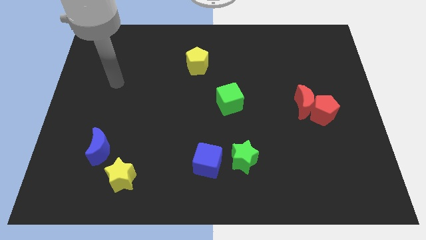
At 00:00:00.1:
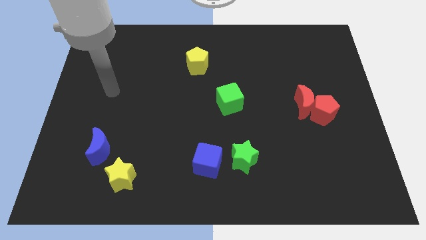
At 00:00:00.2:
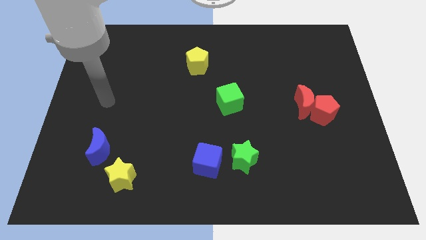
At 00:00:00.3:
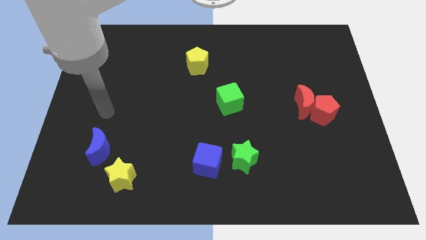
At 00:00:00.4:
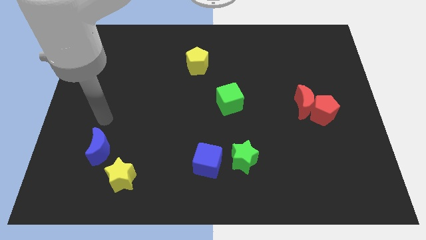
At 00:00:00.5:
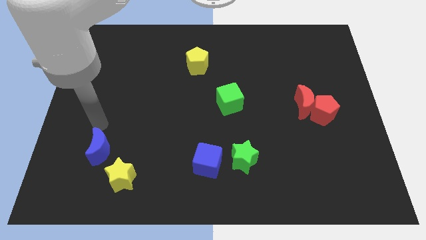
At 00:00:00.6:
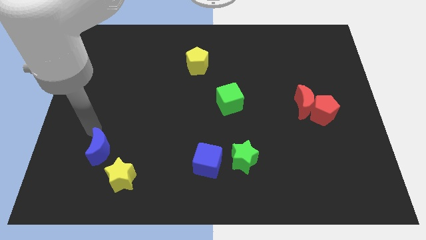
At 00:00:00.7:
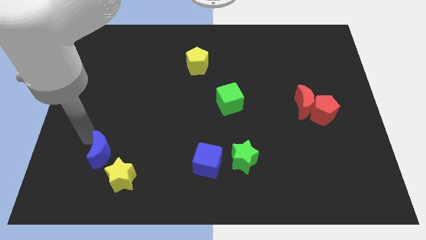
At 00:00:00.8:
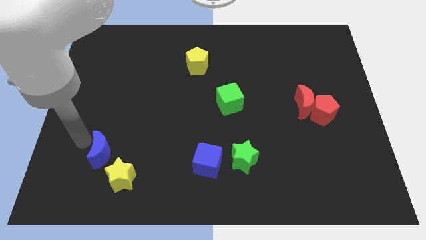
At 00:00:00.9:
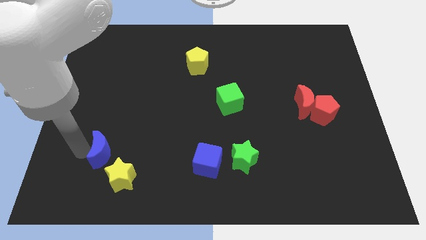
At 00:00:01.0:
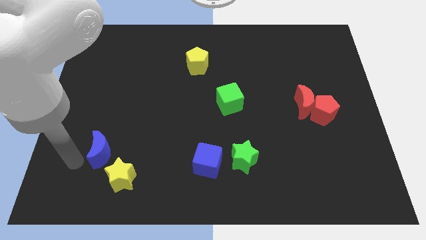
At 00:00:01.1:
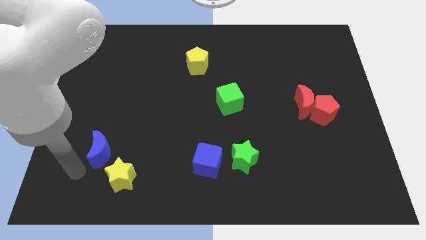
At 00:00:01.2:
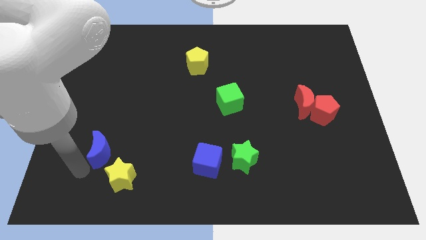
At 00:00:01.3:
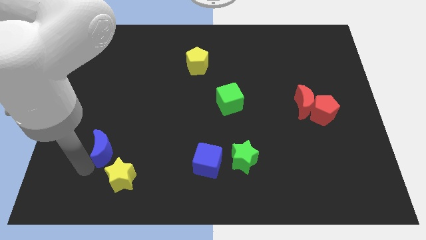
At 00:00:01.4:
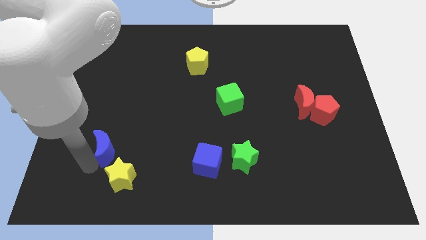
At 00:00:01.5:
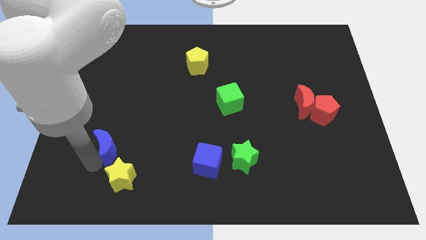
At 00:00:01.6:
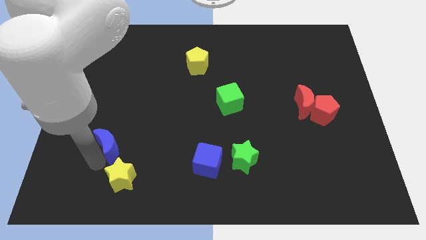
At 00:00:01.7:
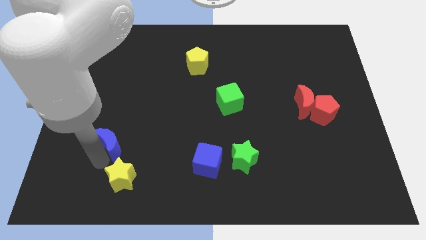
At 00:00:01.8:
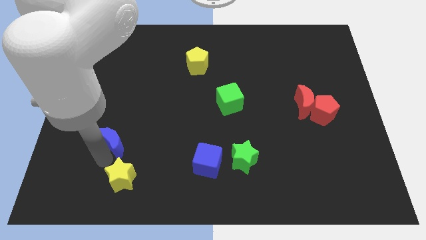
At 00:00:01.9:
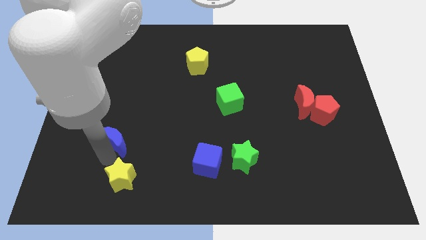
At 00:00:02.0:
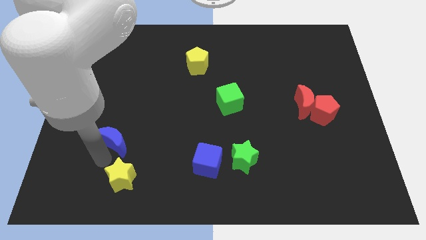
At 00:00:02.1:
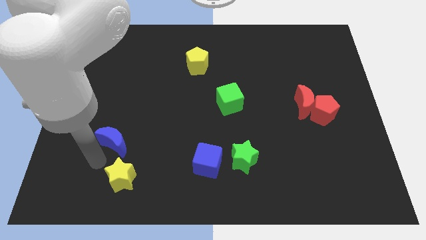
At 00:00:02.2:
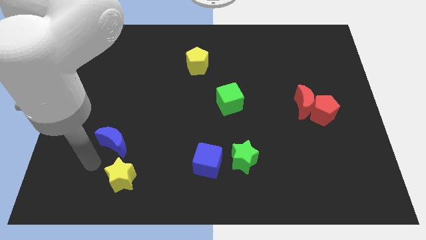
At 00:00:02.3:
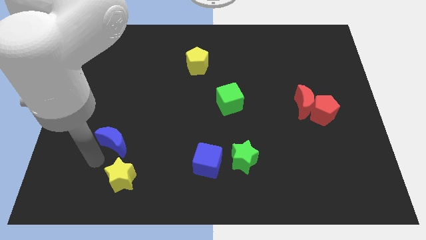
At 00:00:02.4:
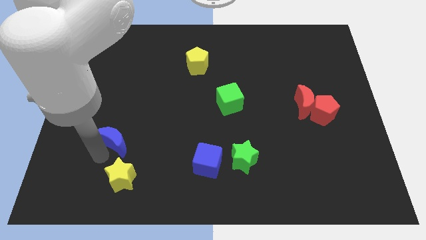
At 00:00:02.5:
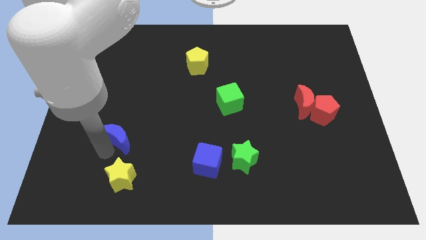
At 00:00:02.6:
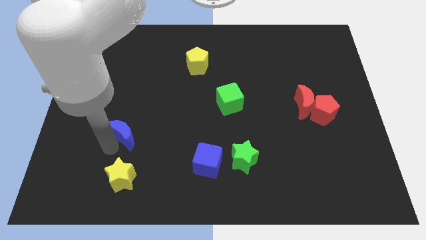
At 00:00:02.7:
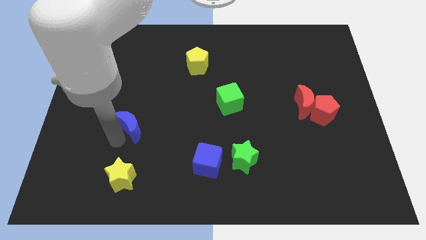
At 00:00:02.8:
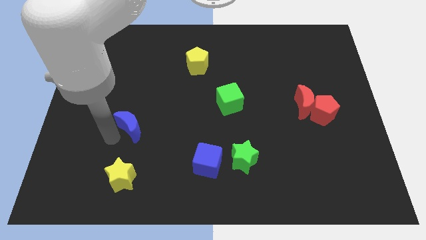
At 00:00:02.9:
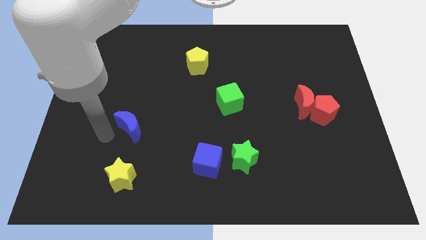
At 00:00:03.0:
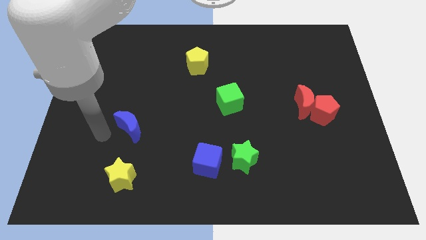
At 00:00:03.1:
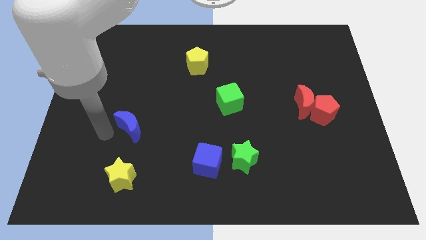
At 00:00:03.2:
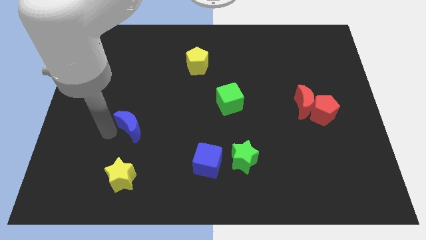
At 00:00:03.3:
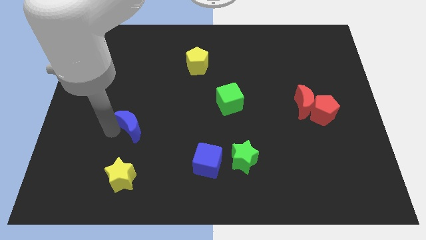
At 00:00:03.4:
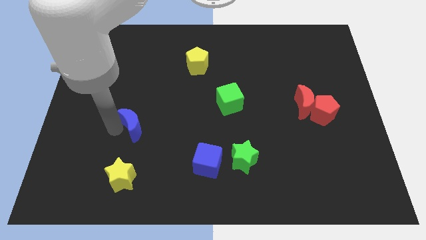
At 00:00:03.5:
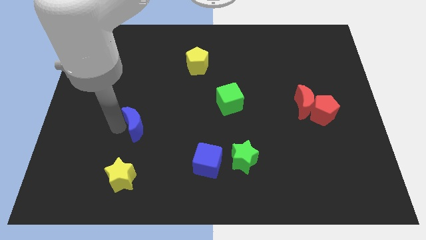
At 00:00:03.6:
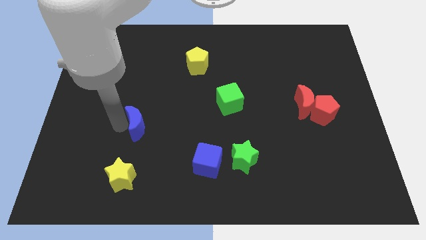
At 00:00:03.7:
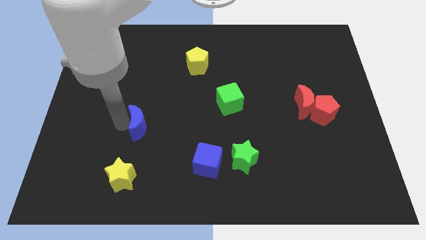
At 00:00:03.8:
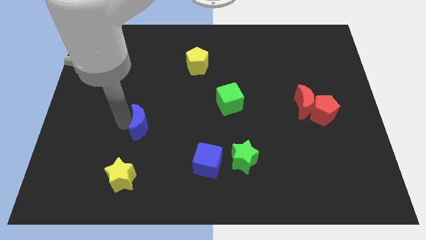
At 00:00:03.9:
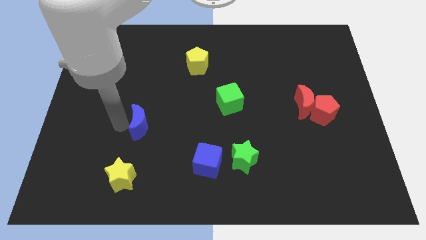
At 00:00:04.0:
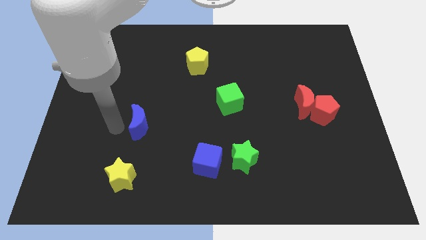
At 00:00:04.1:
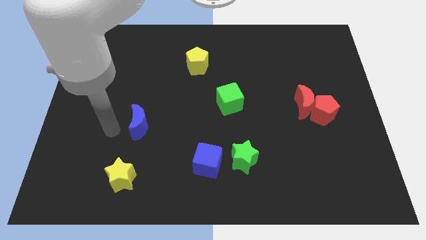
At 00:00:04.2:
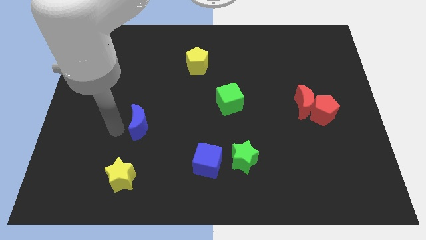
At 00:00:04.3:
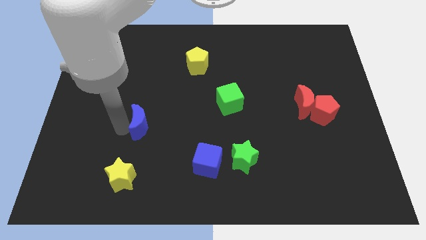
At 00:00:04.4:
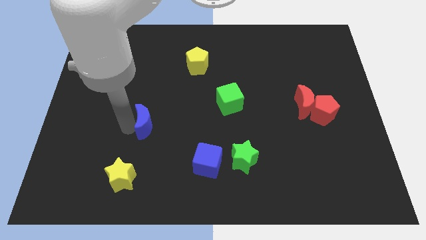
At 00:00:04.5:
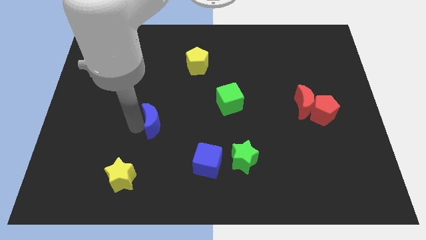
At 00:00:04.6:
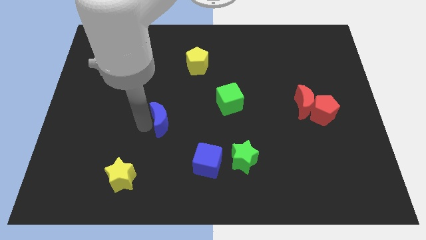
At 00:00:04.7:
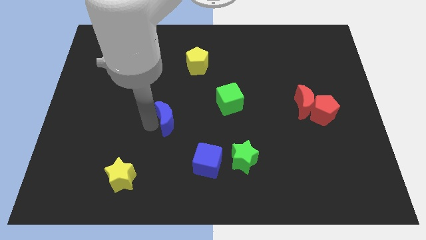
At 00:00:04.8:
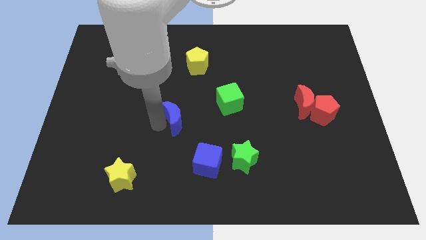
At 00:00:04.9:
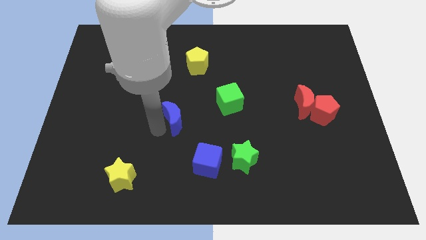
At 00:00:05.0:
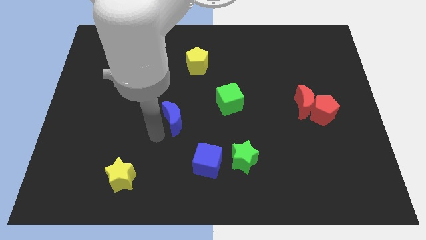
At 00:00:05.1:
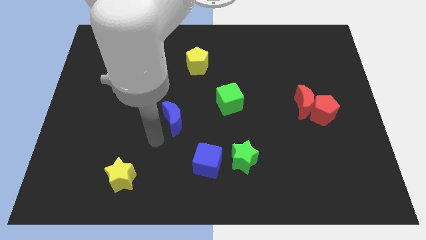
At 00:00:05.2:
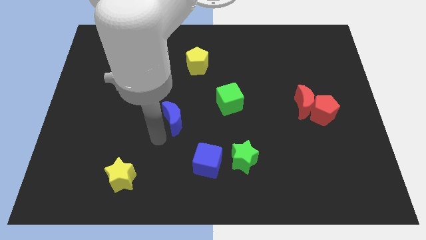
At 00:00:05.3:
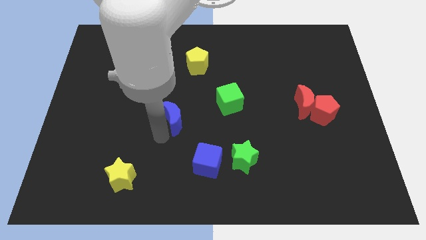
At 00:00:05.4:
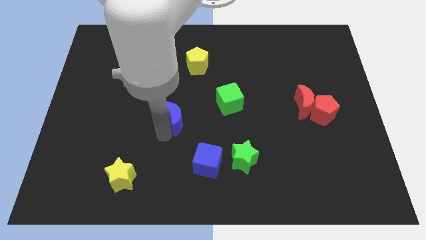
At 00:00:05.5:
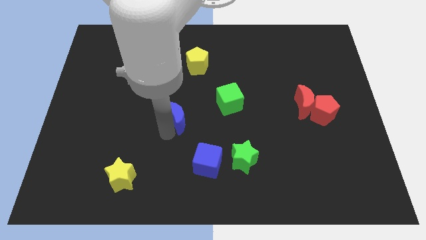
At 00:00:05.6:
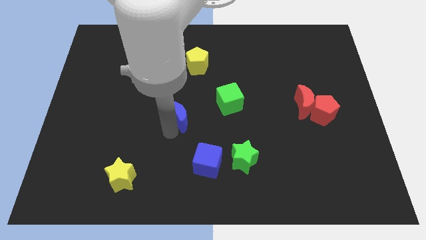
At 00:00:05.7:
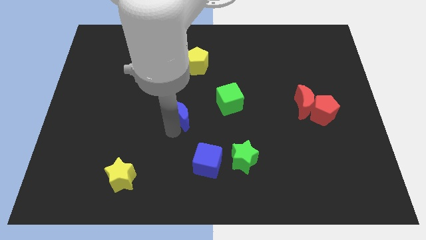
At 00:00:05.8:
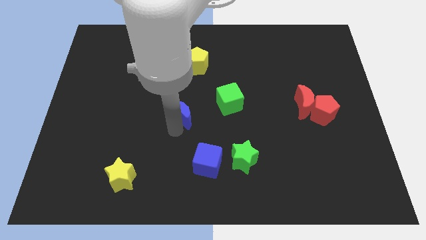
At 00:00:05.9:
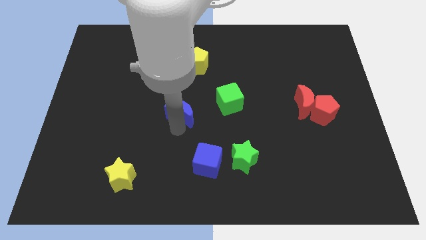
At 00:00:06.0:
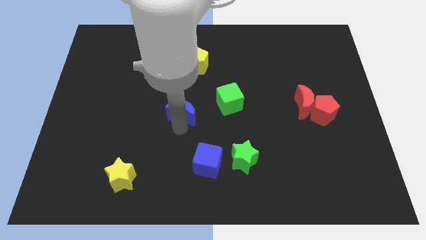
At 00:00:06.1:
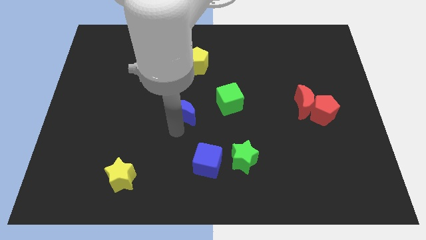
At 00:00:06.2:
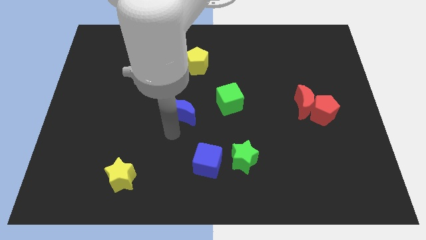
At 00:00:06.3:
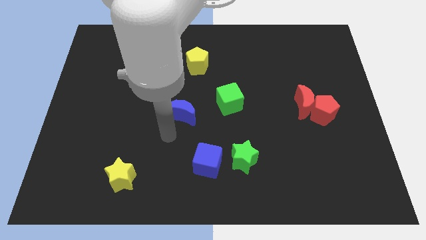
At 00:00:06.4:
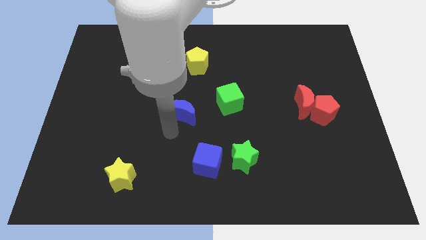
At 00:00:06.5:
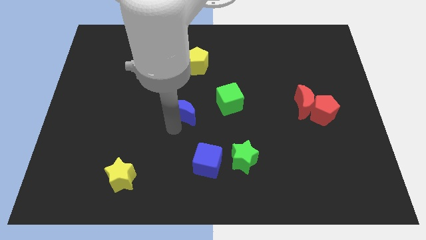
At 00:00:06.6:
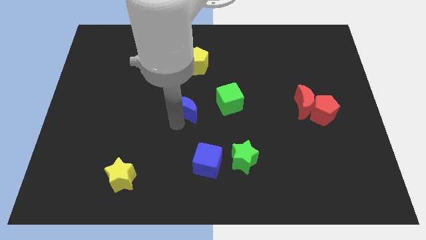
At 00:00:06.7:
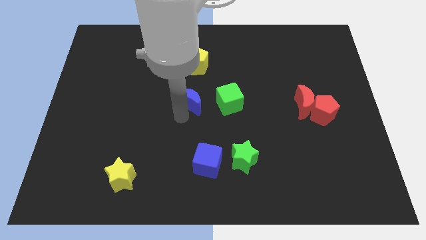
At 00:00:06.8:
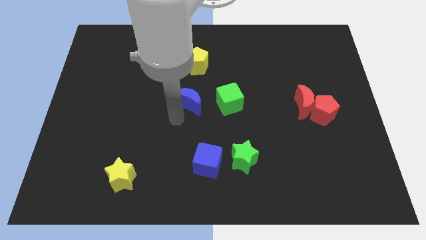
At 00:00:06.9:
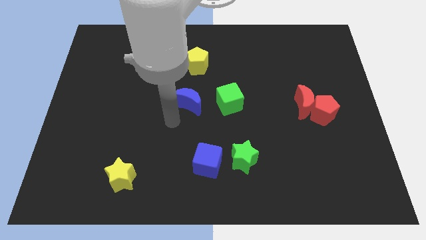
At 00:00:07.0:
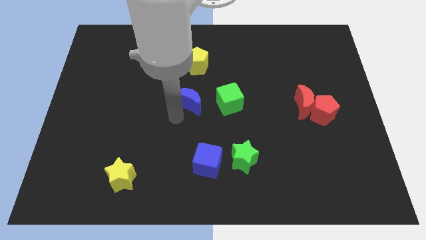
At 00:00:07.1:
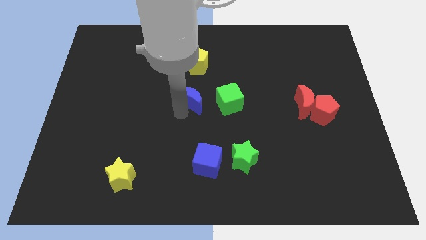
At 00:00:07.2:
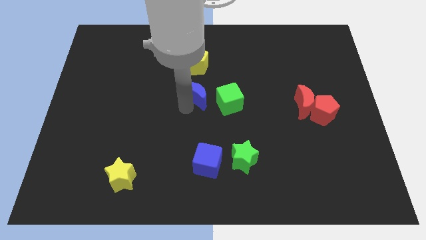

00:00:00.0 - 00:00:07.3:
put the blue moon to the top left side of the green cube
